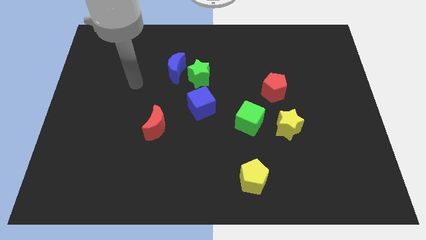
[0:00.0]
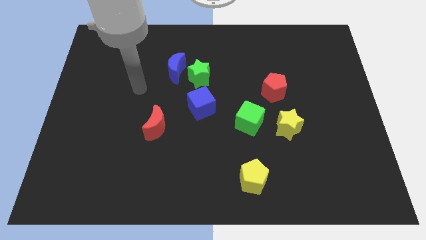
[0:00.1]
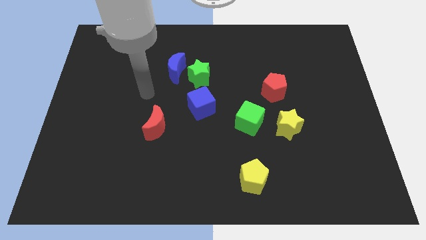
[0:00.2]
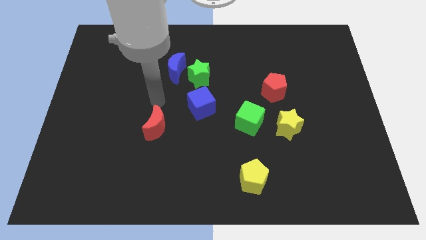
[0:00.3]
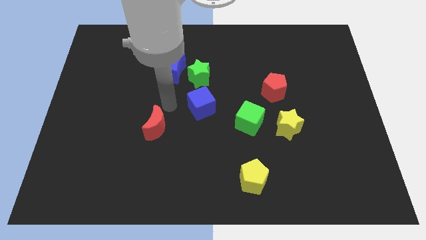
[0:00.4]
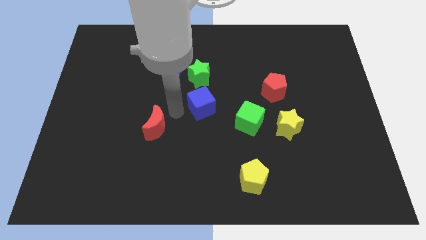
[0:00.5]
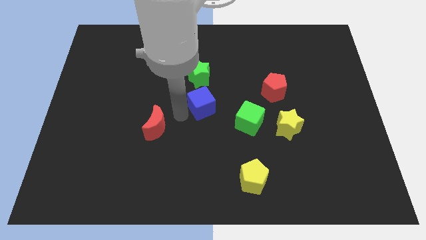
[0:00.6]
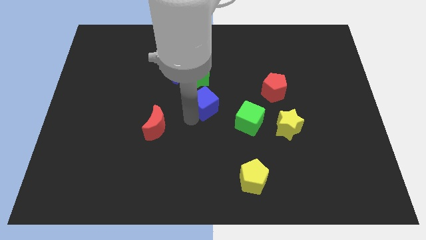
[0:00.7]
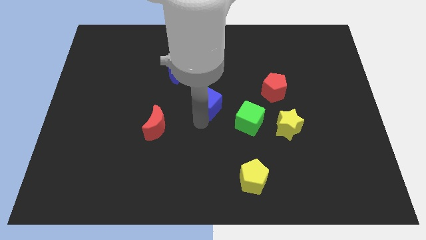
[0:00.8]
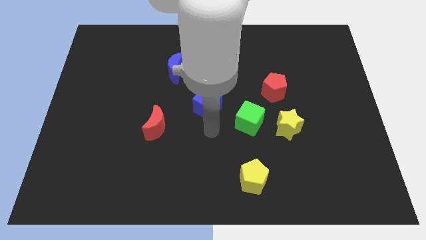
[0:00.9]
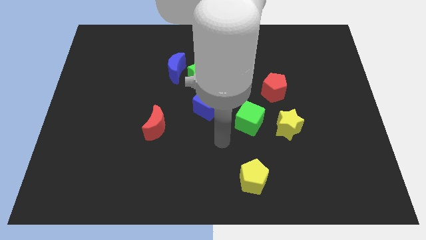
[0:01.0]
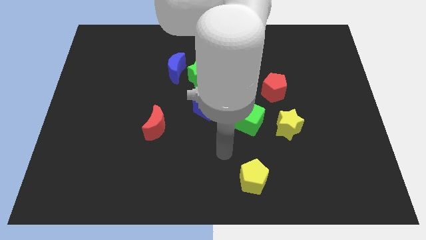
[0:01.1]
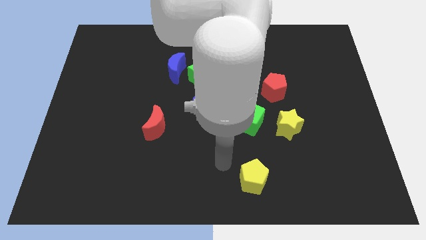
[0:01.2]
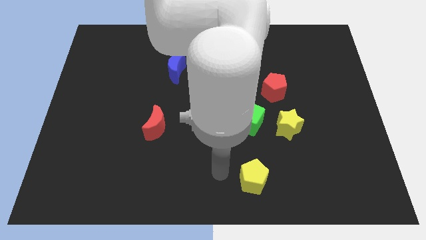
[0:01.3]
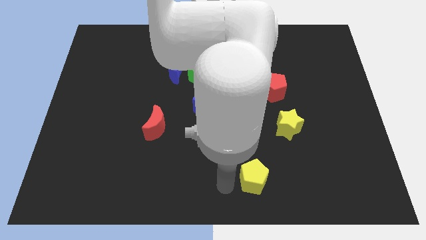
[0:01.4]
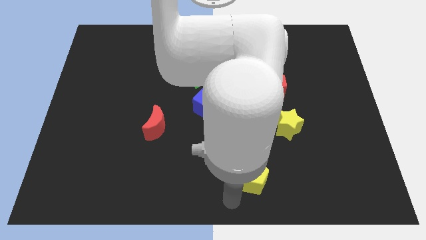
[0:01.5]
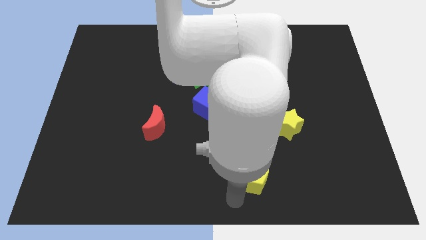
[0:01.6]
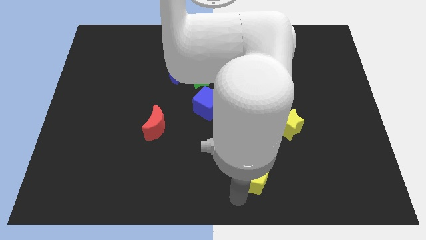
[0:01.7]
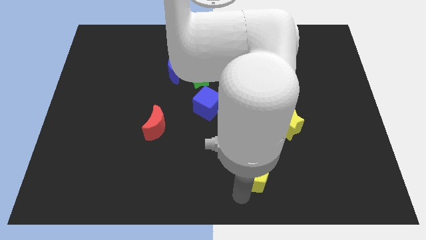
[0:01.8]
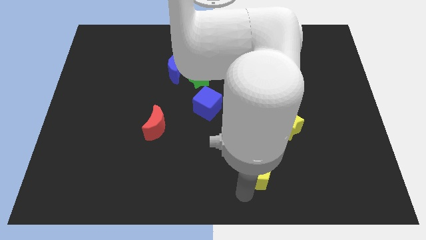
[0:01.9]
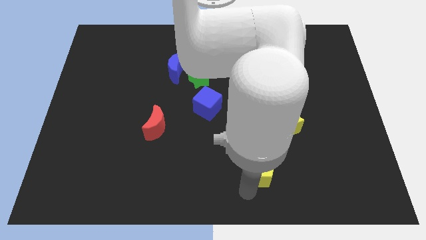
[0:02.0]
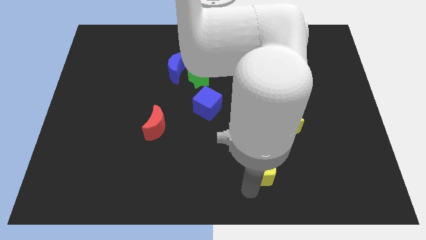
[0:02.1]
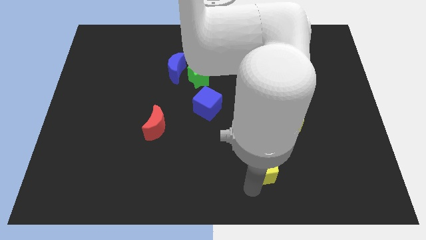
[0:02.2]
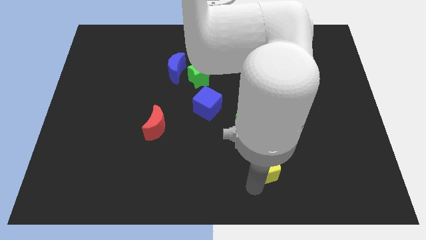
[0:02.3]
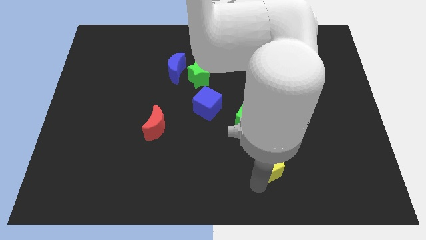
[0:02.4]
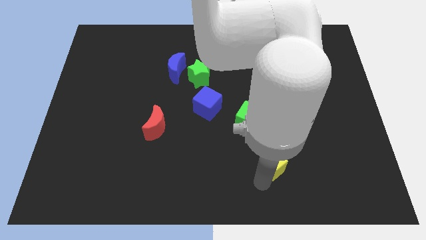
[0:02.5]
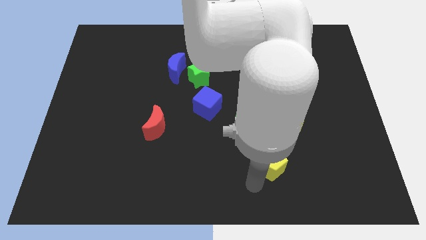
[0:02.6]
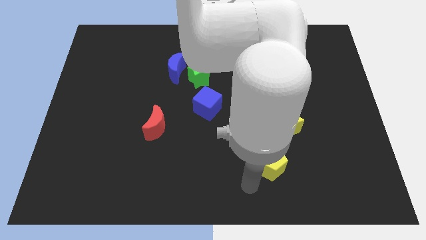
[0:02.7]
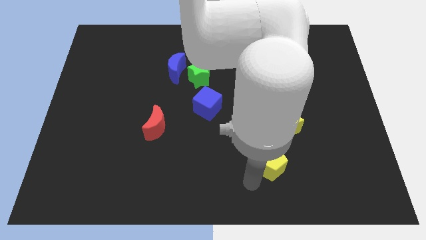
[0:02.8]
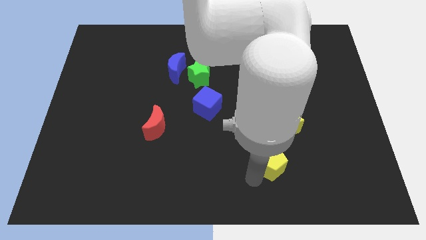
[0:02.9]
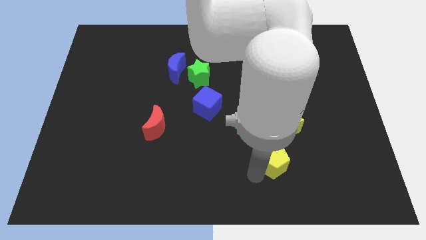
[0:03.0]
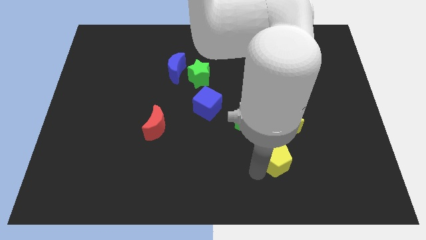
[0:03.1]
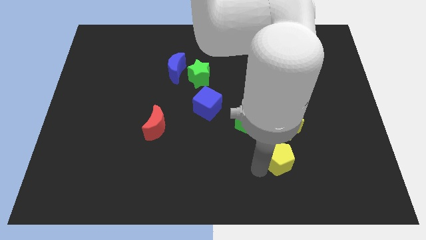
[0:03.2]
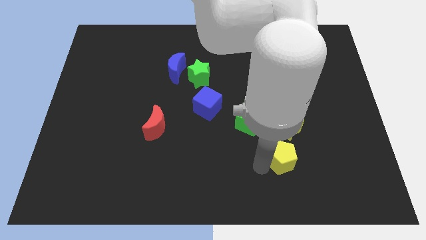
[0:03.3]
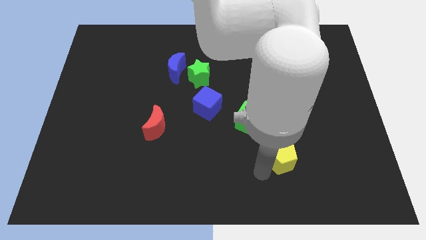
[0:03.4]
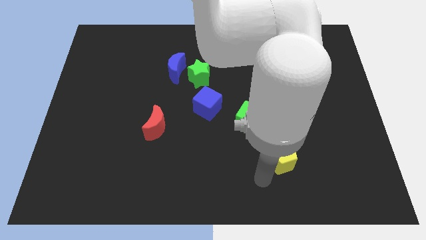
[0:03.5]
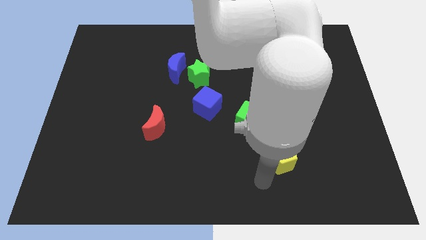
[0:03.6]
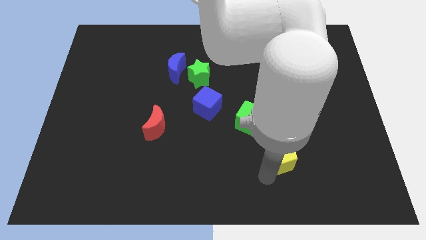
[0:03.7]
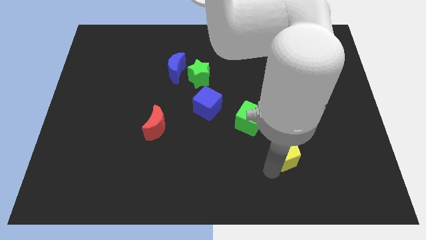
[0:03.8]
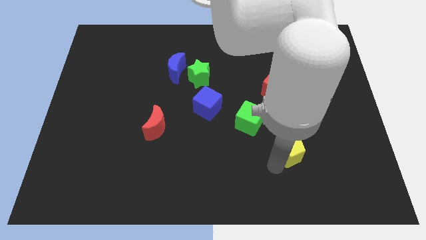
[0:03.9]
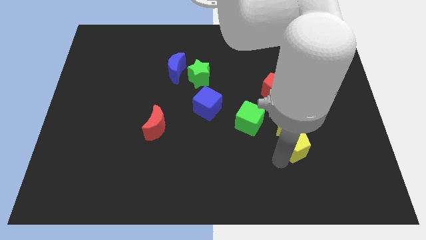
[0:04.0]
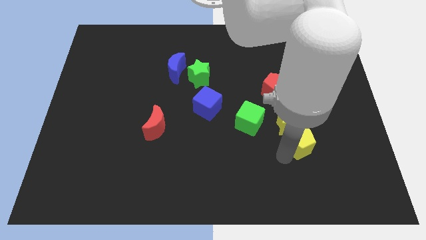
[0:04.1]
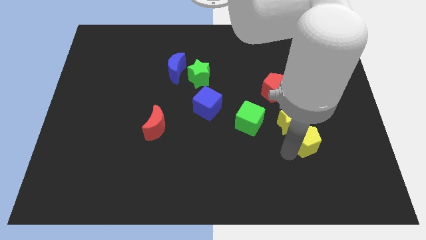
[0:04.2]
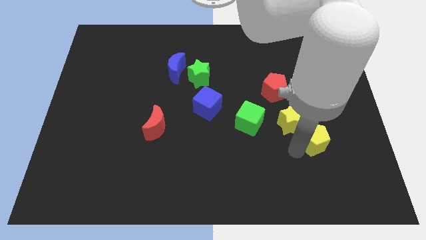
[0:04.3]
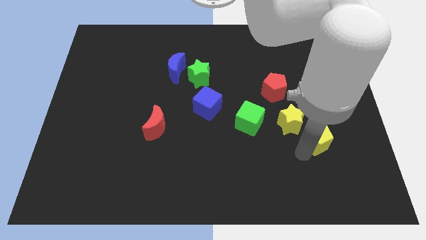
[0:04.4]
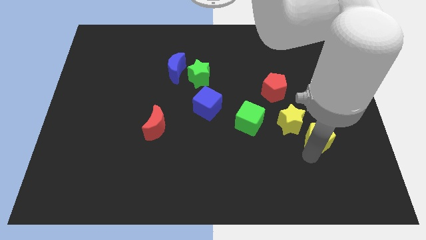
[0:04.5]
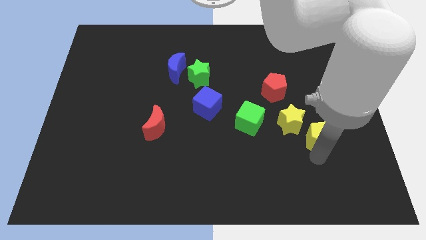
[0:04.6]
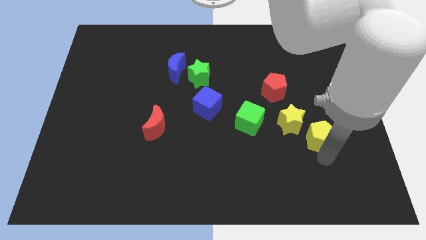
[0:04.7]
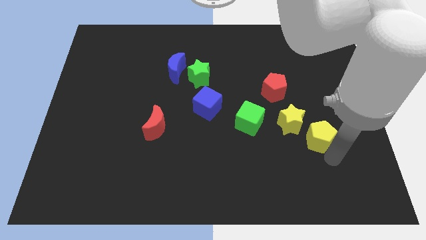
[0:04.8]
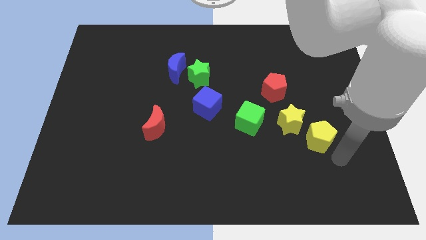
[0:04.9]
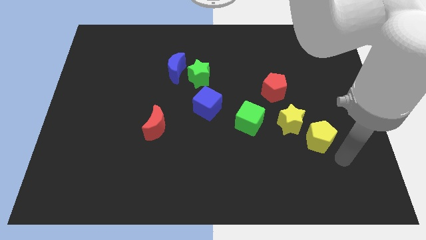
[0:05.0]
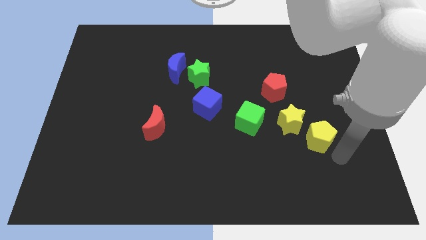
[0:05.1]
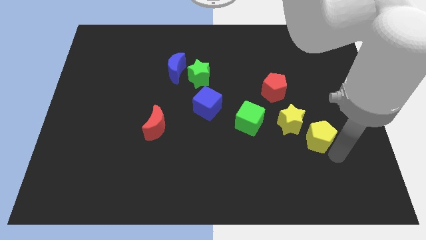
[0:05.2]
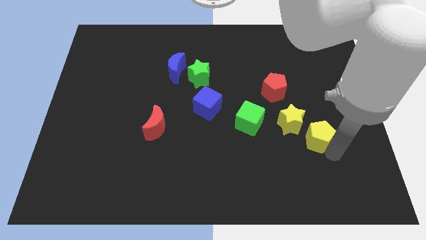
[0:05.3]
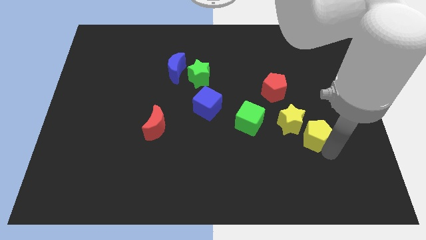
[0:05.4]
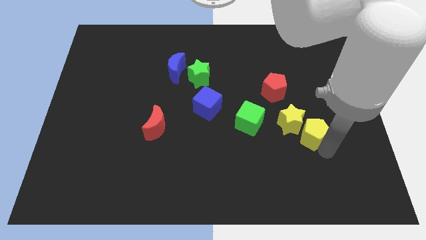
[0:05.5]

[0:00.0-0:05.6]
slide the yellow pentagon just right of the green cube

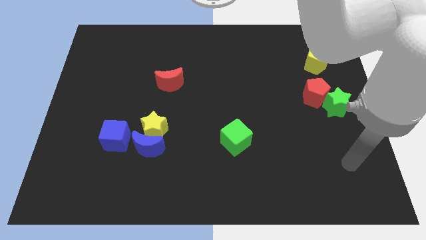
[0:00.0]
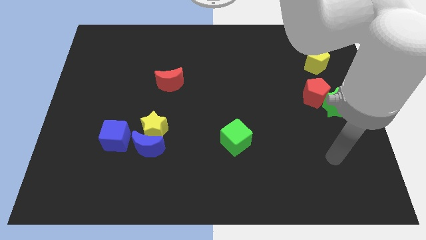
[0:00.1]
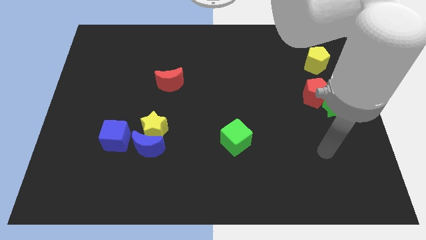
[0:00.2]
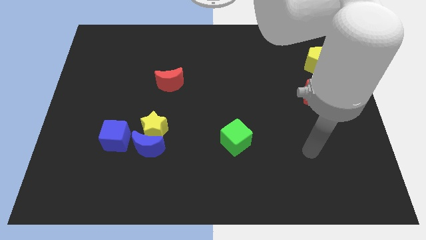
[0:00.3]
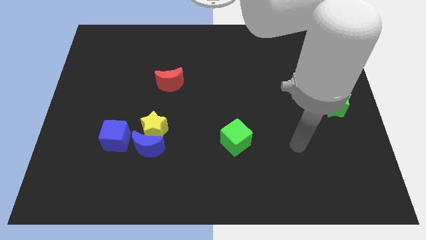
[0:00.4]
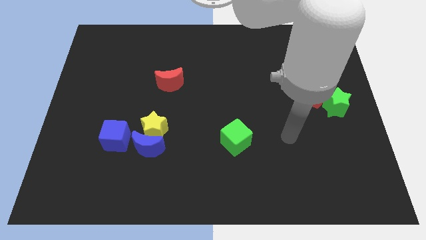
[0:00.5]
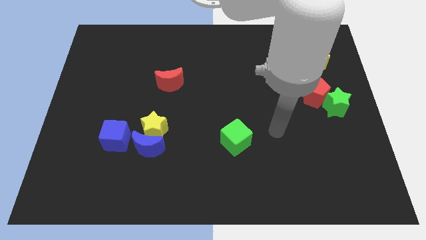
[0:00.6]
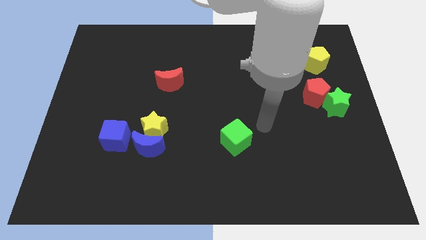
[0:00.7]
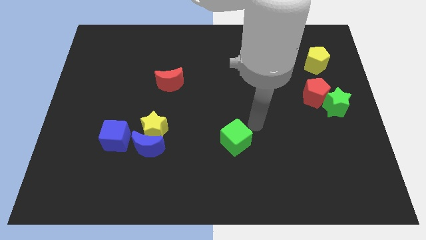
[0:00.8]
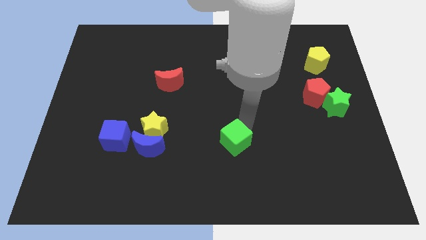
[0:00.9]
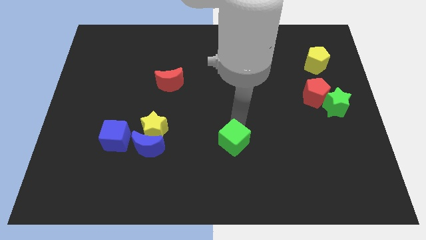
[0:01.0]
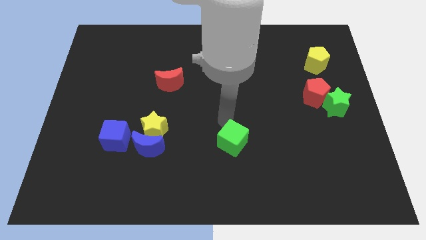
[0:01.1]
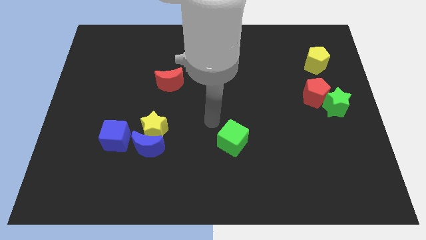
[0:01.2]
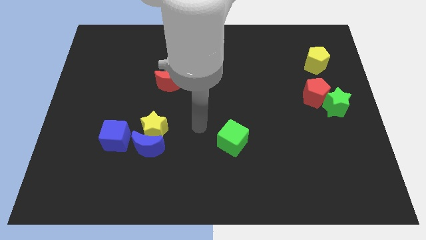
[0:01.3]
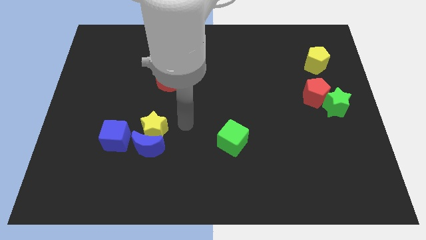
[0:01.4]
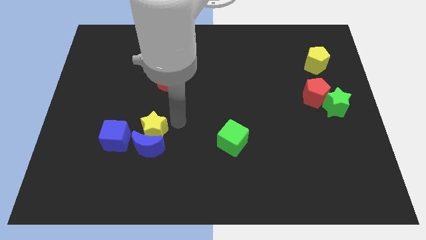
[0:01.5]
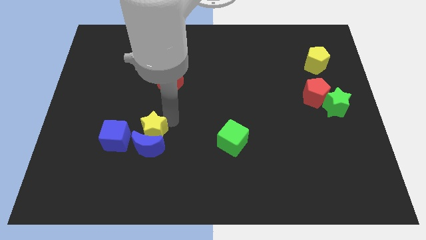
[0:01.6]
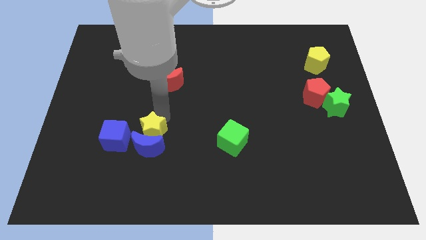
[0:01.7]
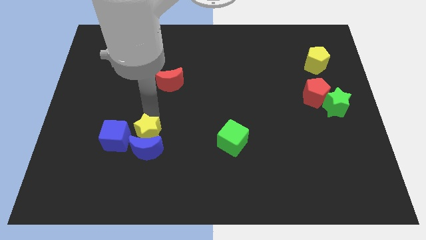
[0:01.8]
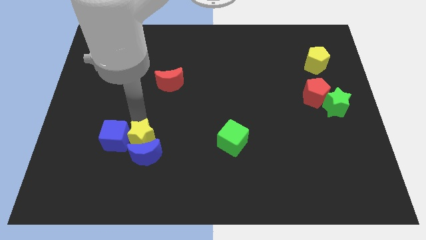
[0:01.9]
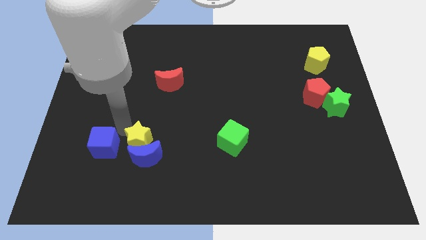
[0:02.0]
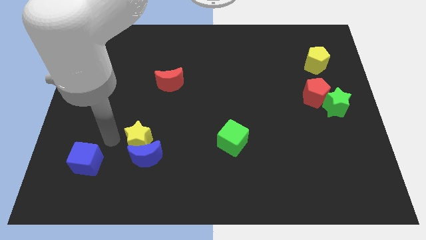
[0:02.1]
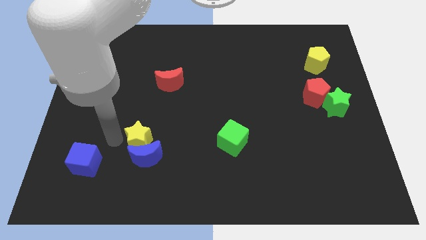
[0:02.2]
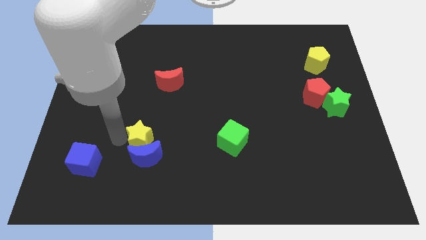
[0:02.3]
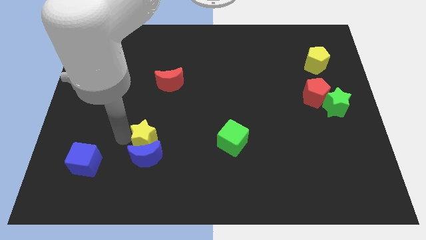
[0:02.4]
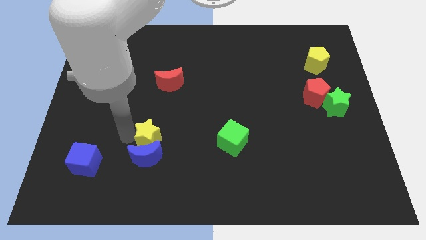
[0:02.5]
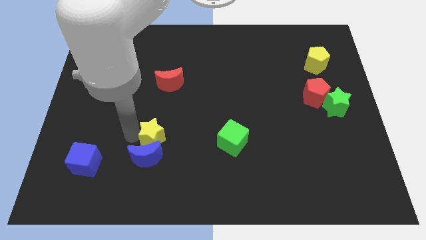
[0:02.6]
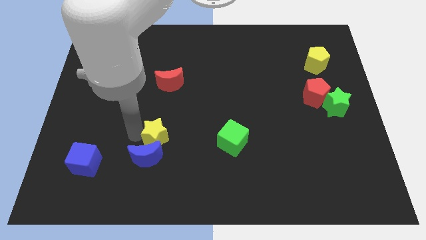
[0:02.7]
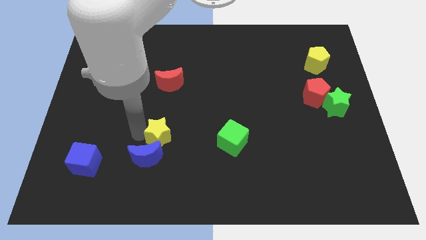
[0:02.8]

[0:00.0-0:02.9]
put the yellow star to the left side of the green cube
